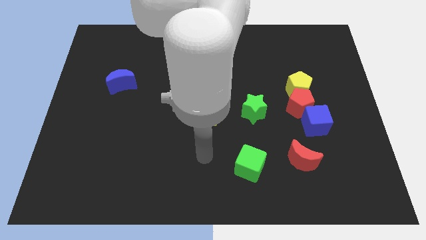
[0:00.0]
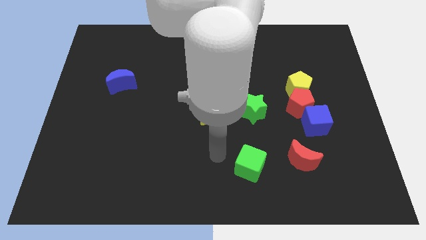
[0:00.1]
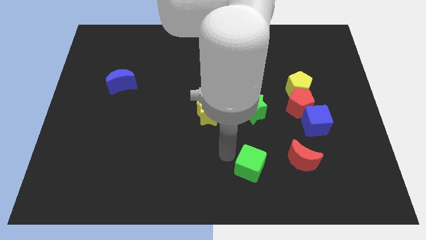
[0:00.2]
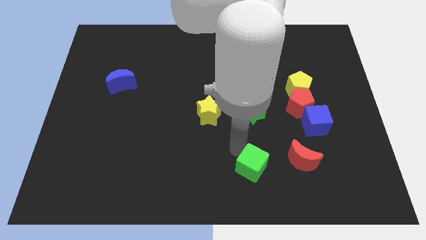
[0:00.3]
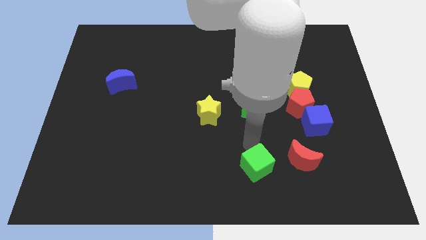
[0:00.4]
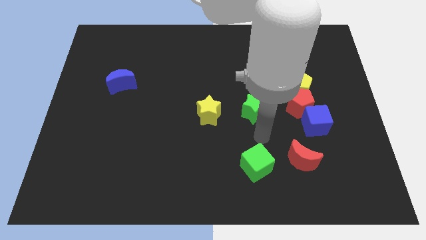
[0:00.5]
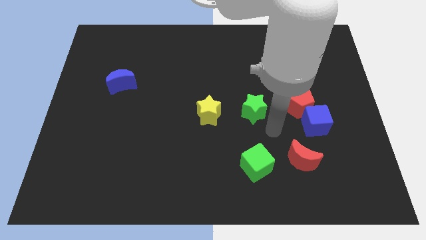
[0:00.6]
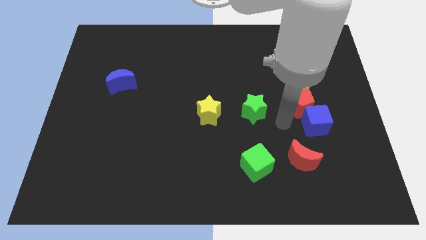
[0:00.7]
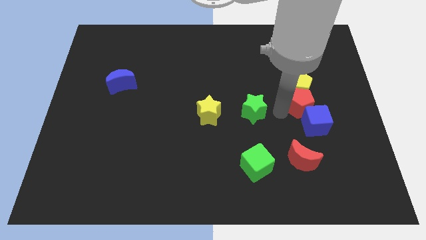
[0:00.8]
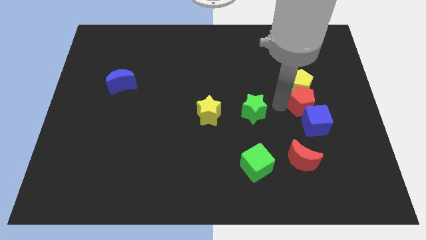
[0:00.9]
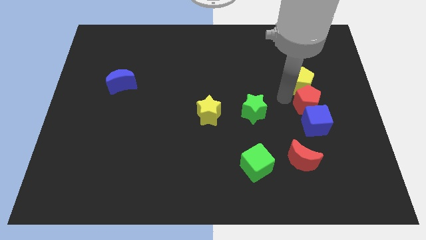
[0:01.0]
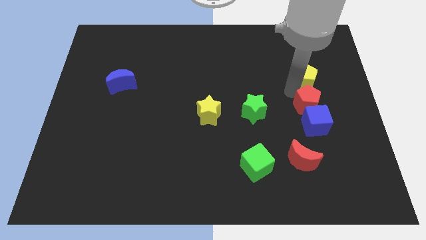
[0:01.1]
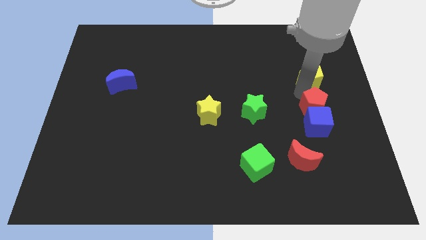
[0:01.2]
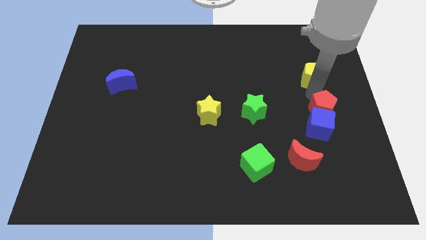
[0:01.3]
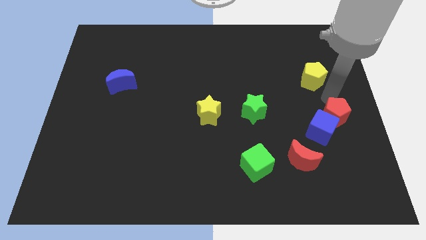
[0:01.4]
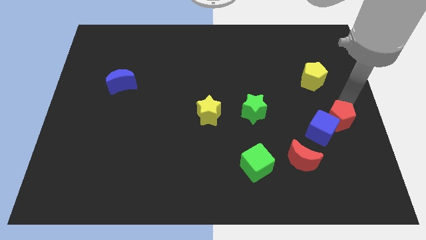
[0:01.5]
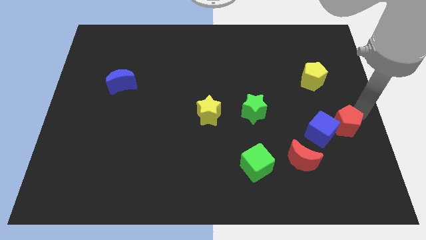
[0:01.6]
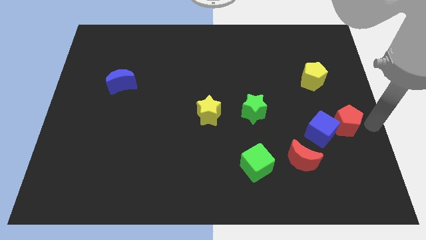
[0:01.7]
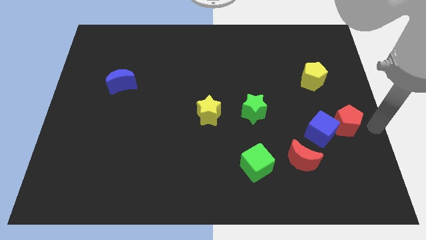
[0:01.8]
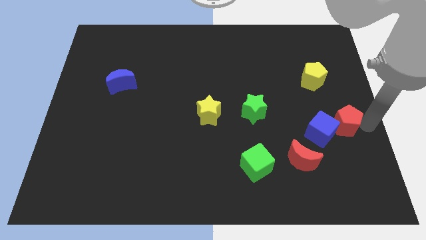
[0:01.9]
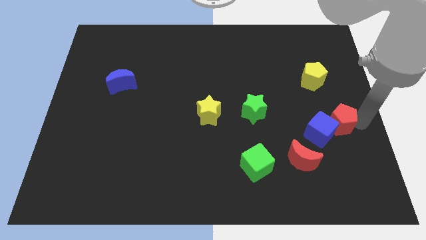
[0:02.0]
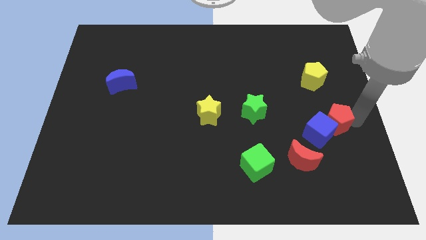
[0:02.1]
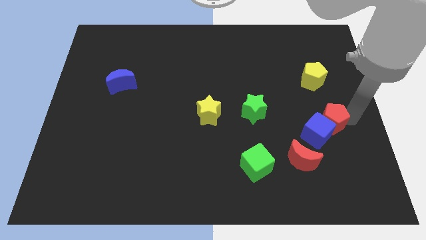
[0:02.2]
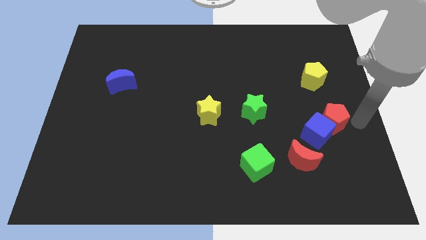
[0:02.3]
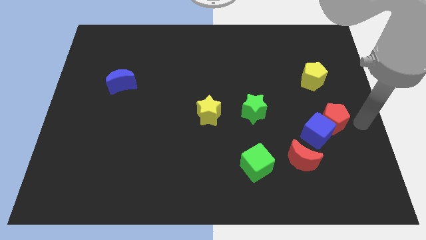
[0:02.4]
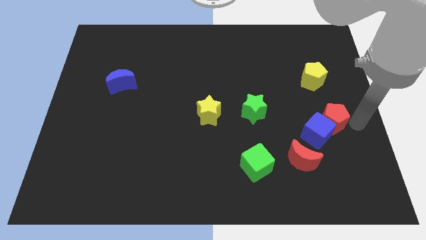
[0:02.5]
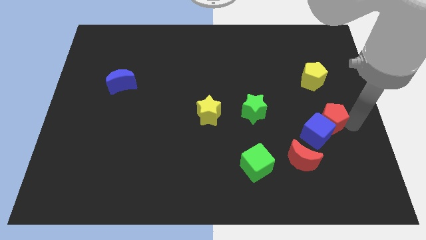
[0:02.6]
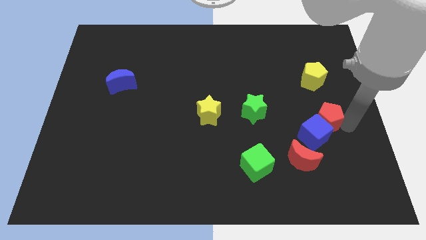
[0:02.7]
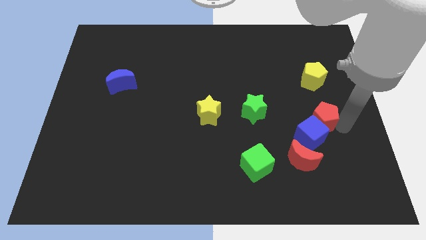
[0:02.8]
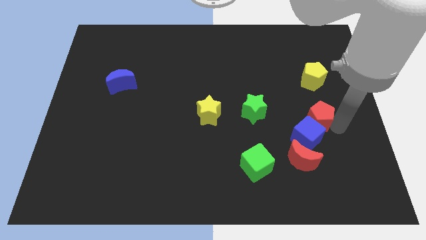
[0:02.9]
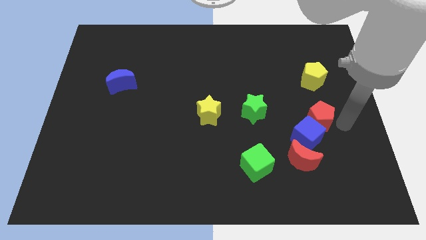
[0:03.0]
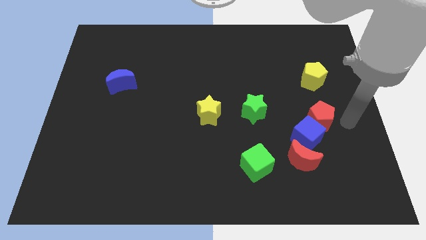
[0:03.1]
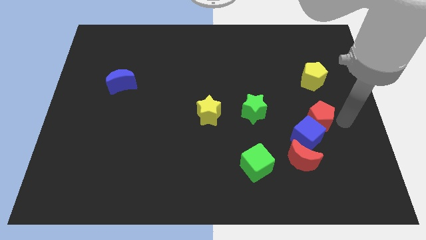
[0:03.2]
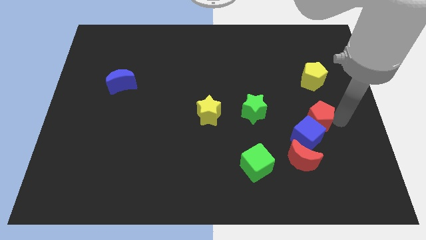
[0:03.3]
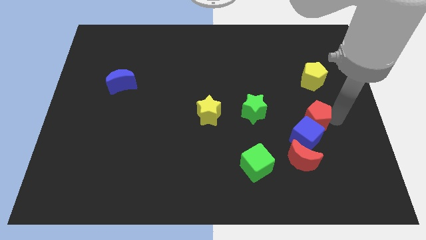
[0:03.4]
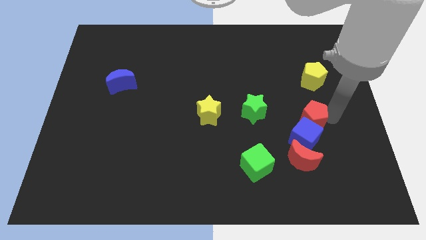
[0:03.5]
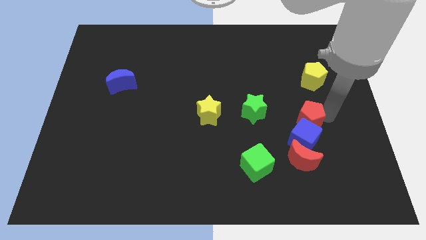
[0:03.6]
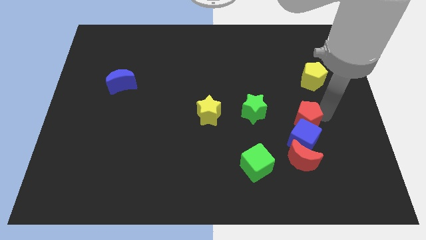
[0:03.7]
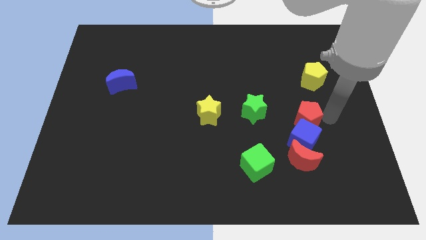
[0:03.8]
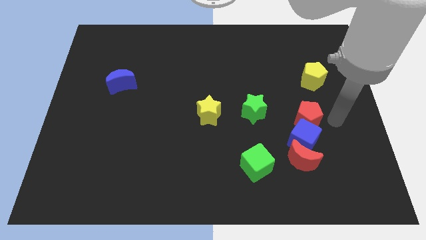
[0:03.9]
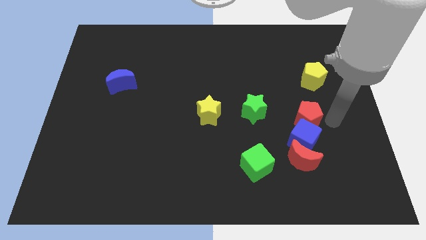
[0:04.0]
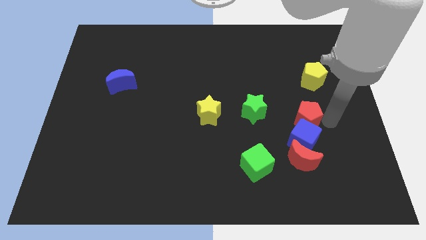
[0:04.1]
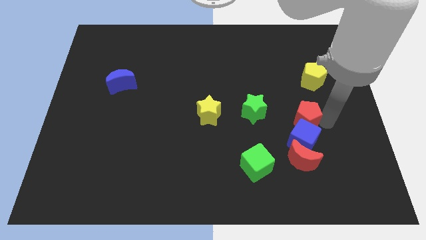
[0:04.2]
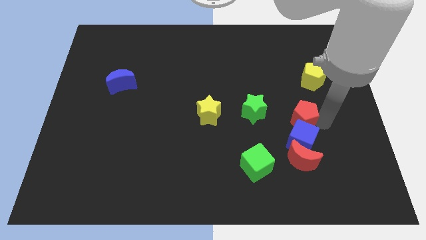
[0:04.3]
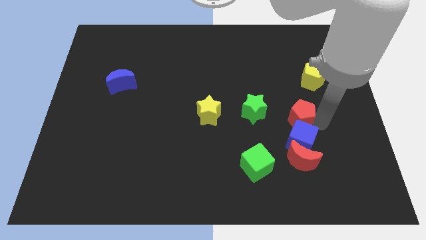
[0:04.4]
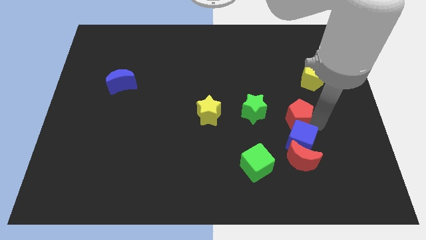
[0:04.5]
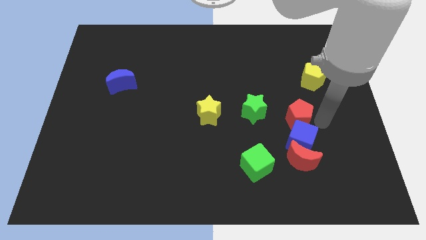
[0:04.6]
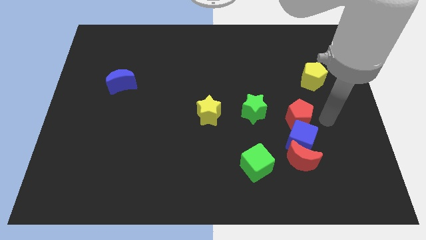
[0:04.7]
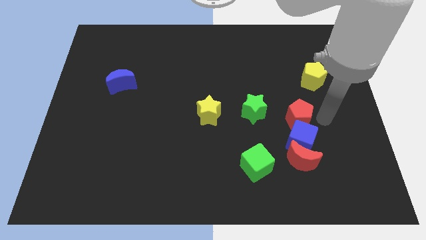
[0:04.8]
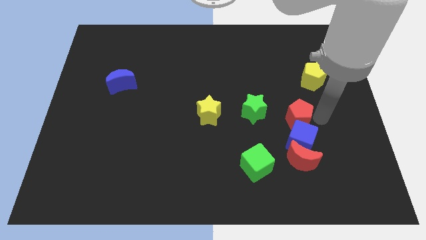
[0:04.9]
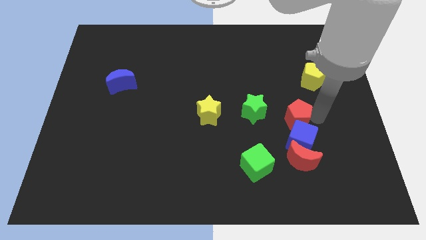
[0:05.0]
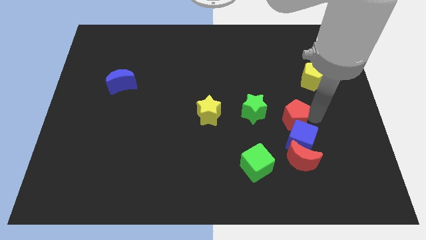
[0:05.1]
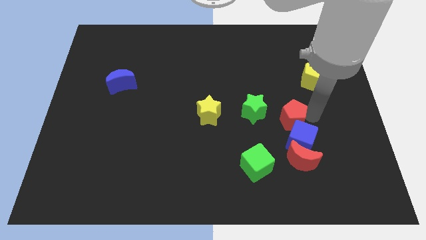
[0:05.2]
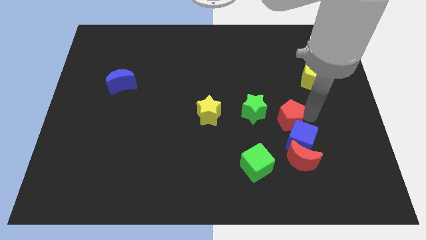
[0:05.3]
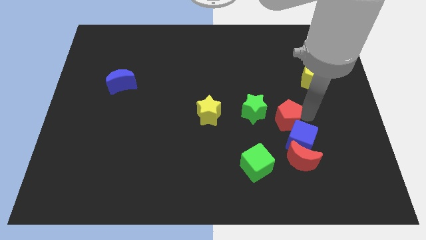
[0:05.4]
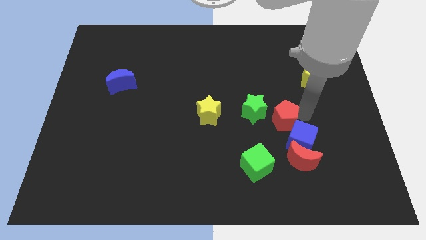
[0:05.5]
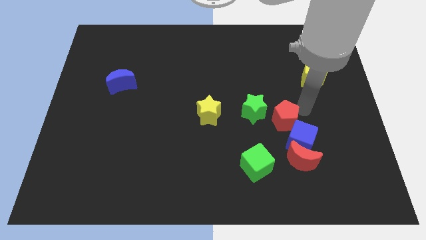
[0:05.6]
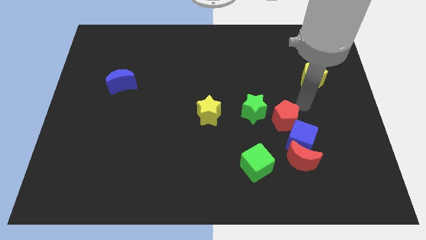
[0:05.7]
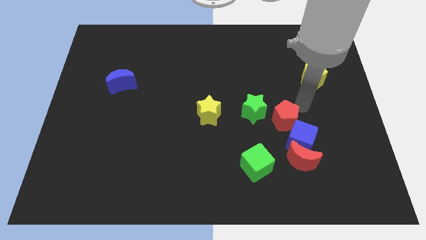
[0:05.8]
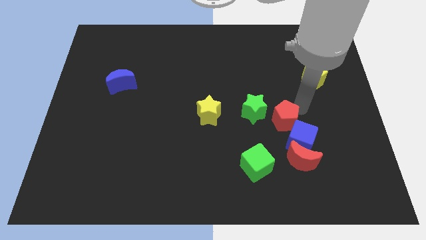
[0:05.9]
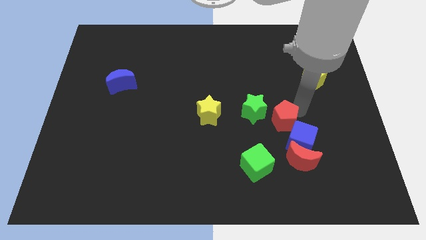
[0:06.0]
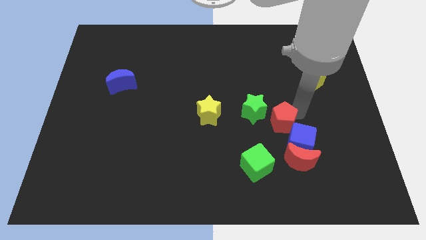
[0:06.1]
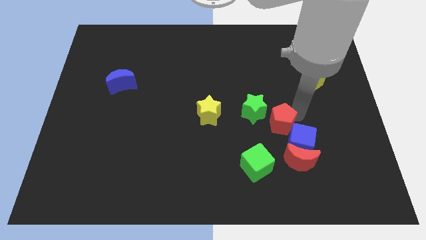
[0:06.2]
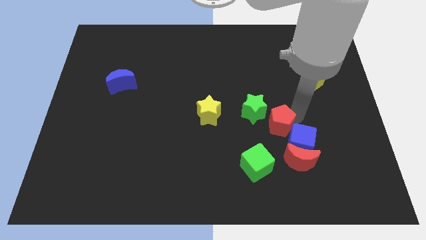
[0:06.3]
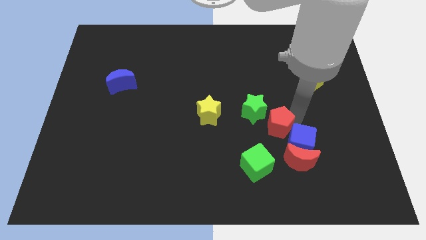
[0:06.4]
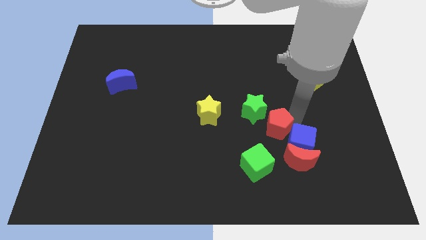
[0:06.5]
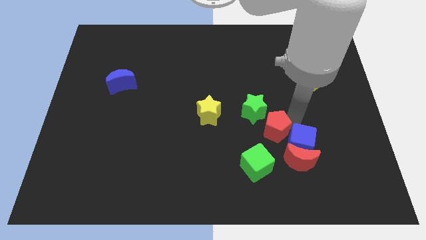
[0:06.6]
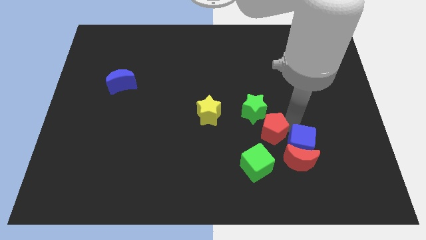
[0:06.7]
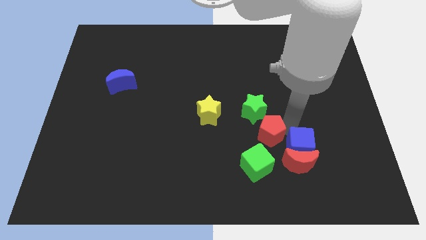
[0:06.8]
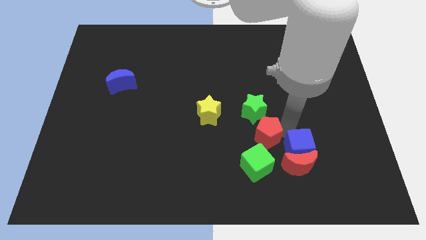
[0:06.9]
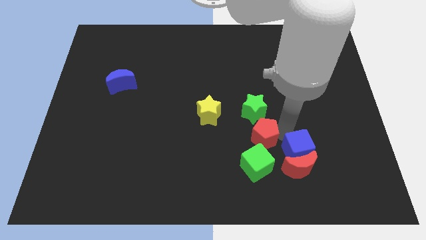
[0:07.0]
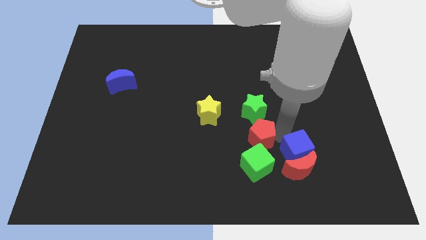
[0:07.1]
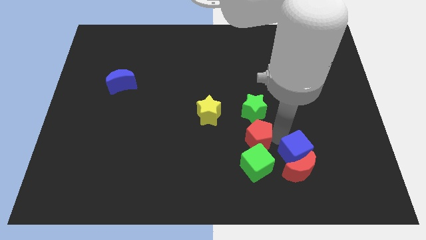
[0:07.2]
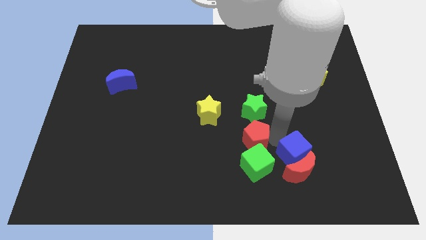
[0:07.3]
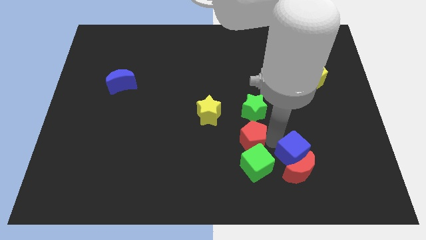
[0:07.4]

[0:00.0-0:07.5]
push the red pentagon diagonally down and to the left of the green star

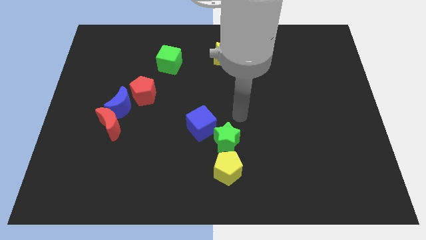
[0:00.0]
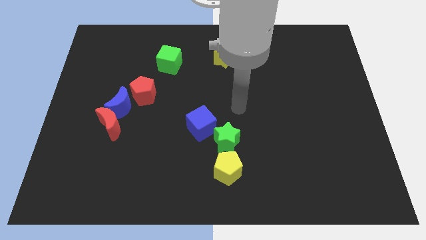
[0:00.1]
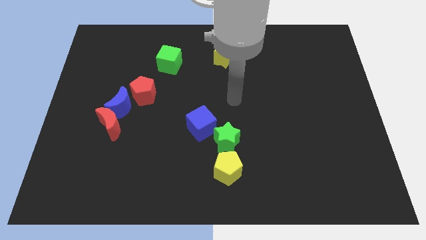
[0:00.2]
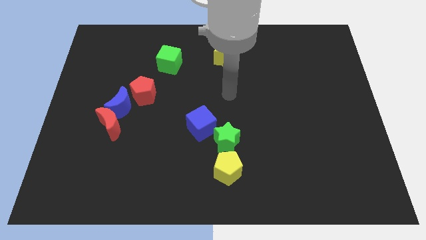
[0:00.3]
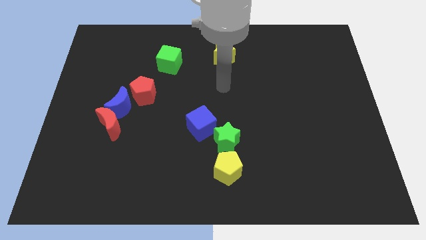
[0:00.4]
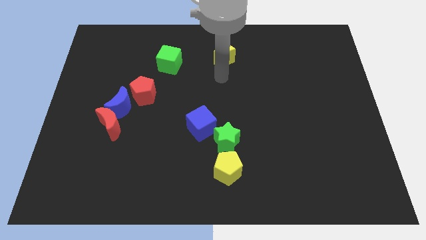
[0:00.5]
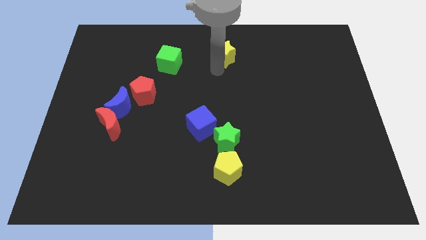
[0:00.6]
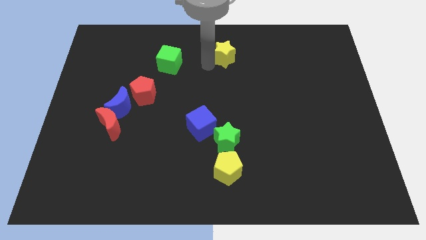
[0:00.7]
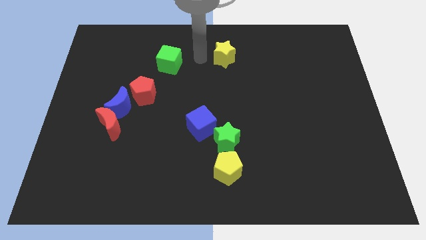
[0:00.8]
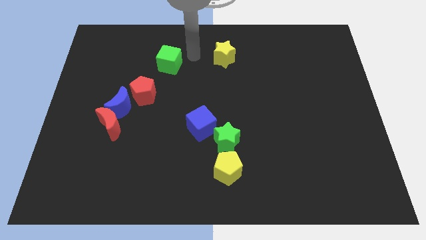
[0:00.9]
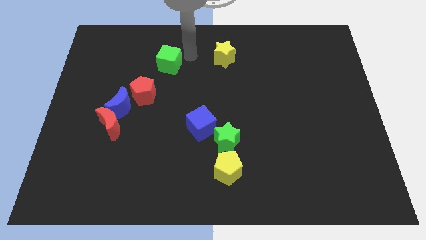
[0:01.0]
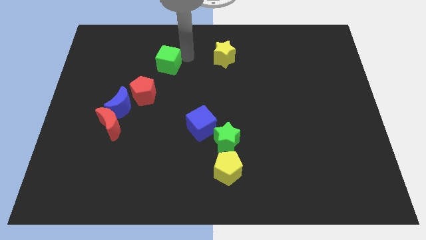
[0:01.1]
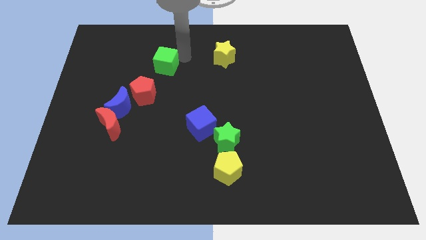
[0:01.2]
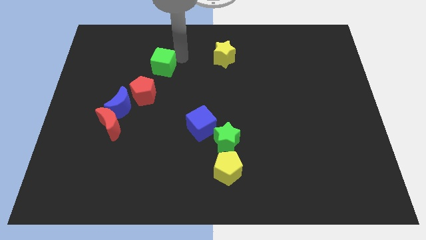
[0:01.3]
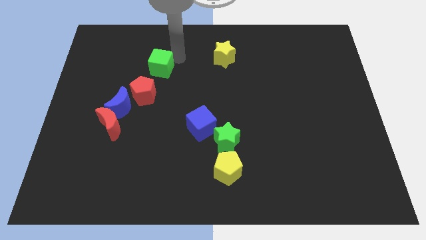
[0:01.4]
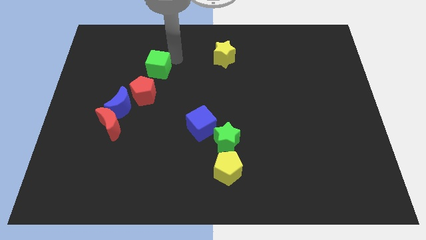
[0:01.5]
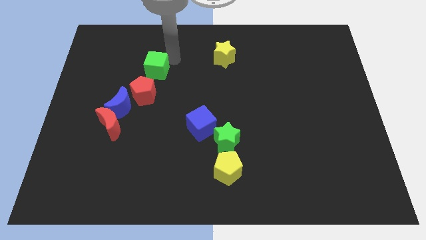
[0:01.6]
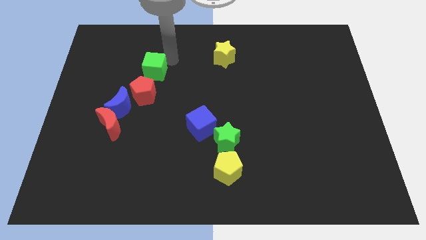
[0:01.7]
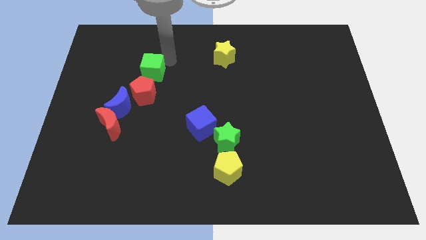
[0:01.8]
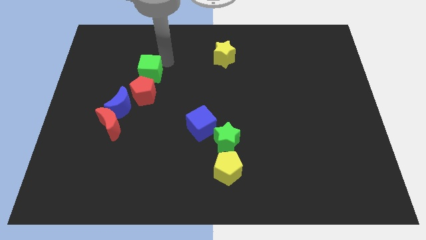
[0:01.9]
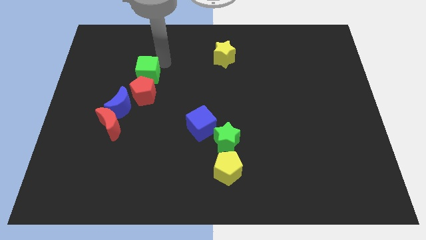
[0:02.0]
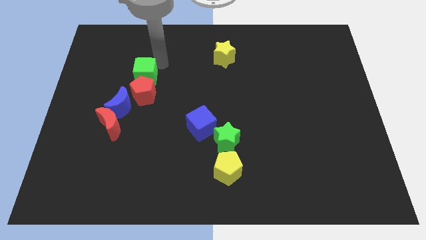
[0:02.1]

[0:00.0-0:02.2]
slide the green cube to the top left side of the red pentagon
